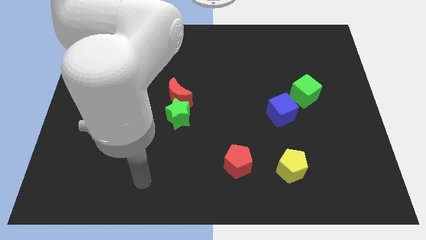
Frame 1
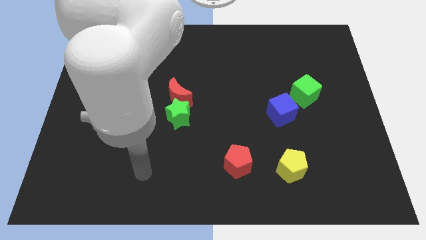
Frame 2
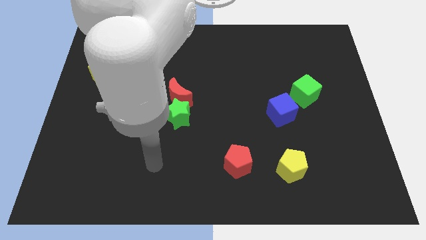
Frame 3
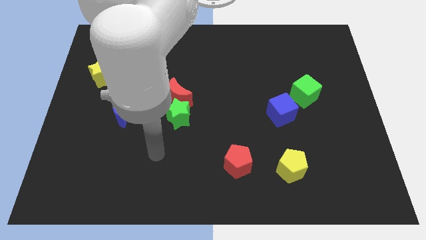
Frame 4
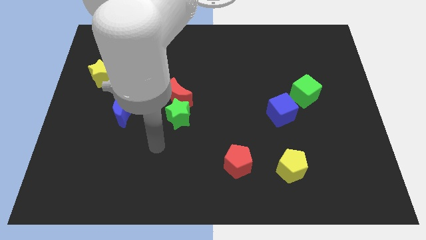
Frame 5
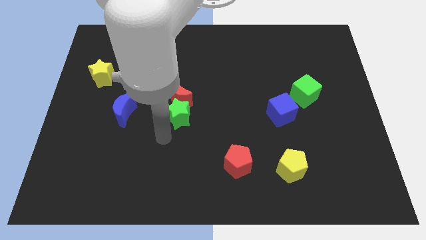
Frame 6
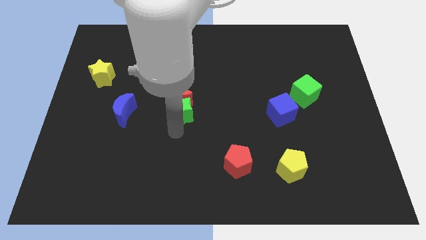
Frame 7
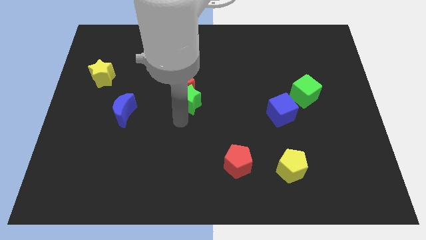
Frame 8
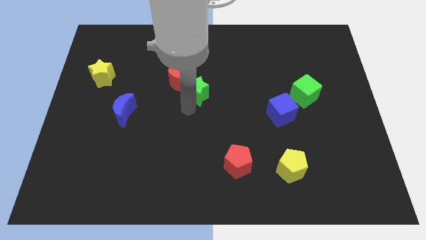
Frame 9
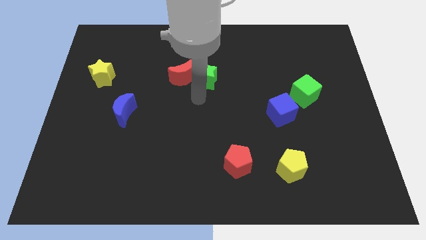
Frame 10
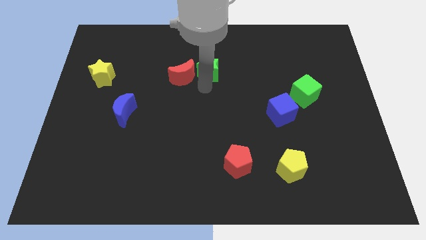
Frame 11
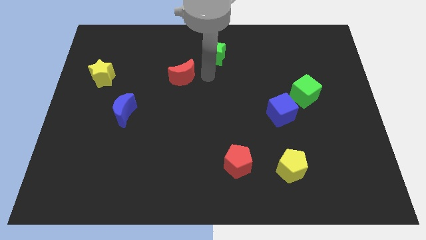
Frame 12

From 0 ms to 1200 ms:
separate the red moon from the green star

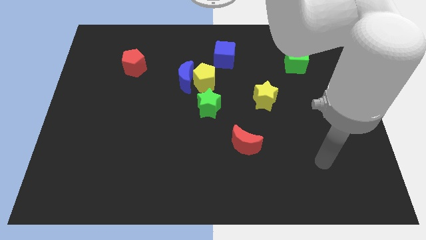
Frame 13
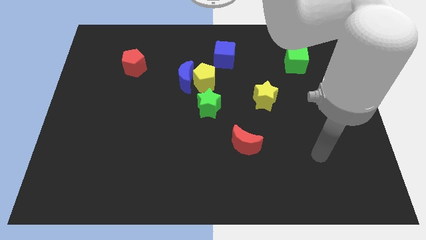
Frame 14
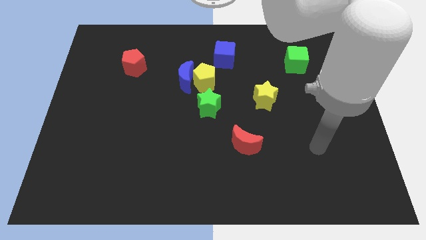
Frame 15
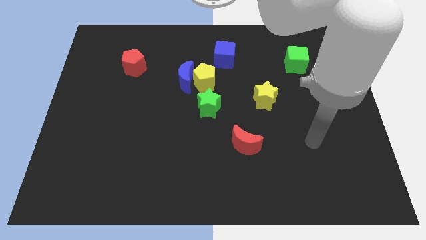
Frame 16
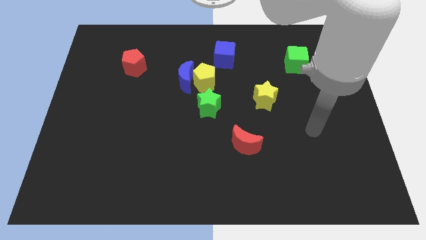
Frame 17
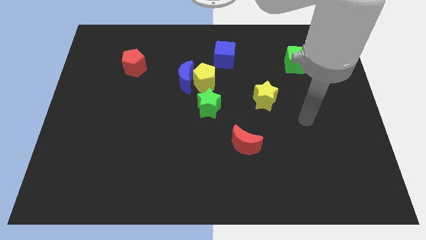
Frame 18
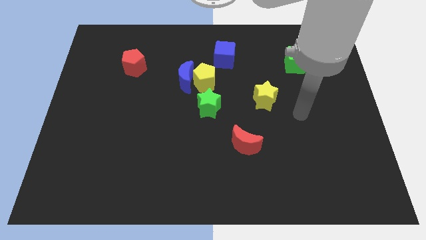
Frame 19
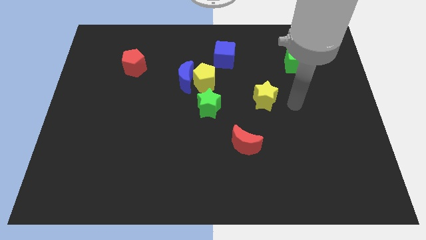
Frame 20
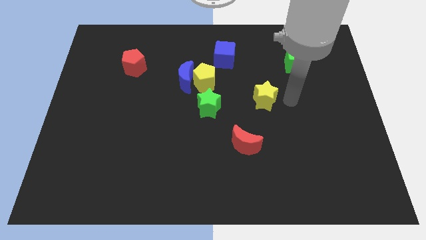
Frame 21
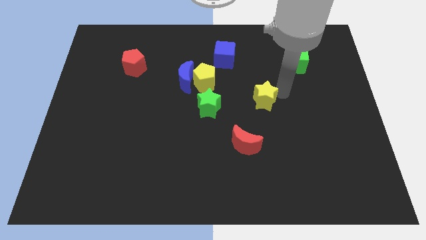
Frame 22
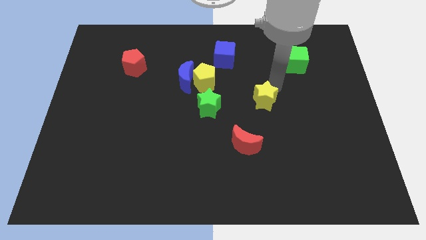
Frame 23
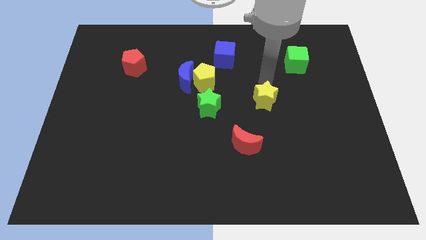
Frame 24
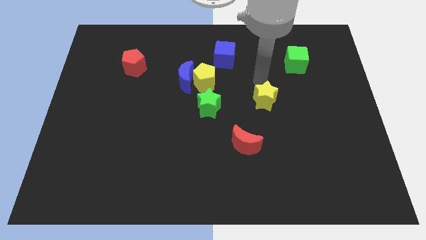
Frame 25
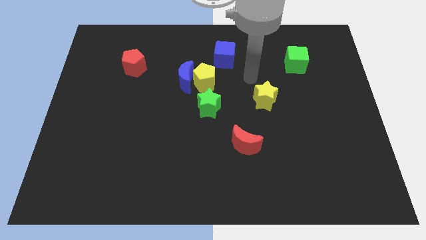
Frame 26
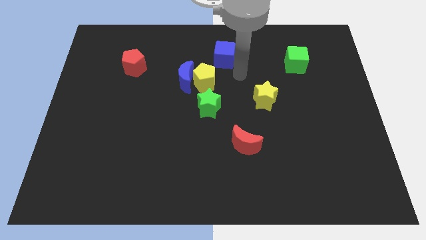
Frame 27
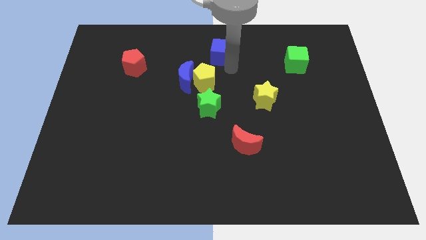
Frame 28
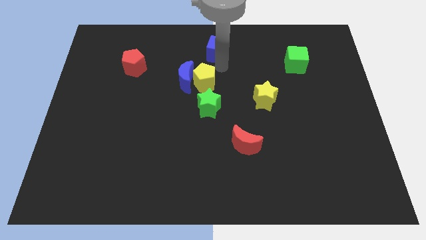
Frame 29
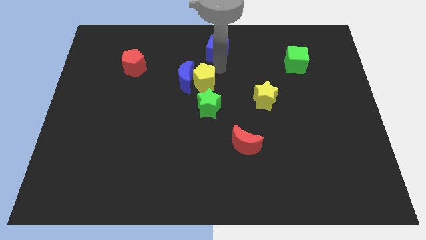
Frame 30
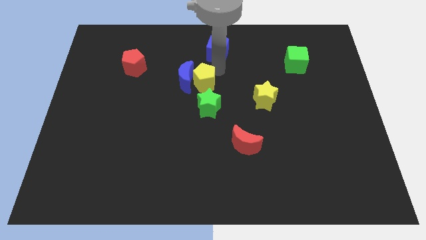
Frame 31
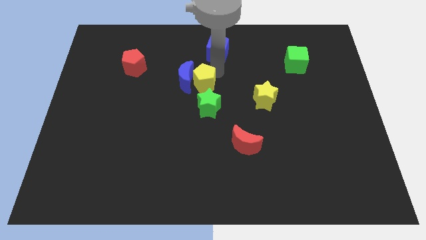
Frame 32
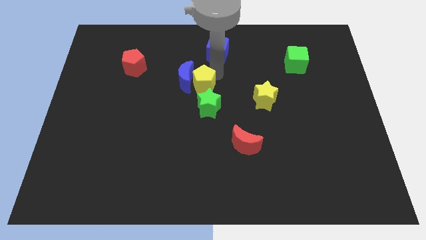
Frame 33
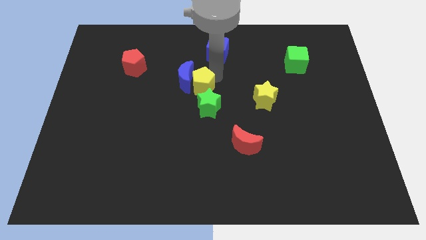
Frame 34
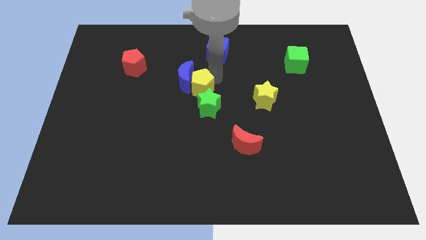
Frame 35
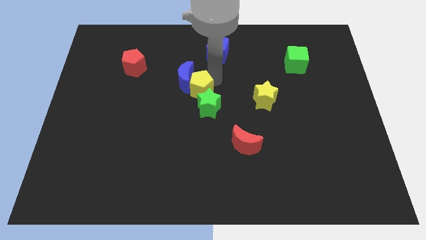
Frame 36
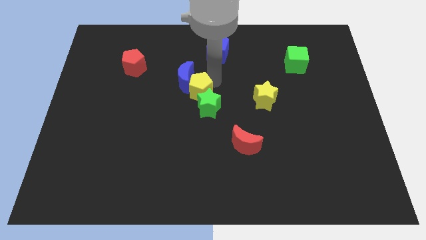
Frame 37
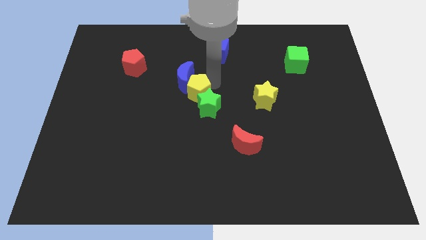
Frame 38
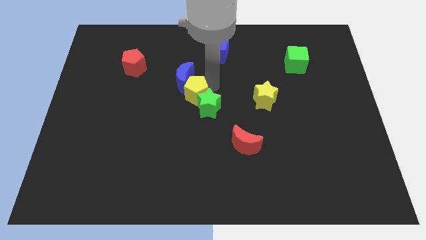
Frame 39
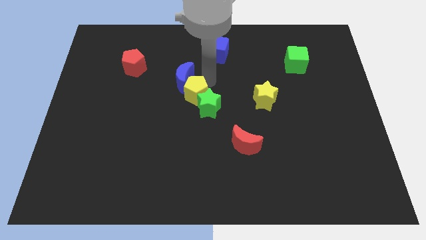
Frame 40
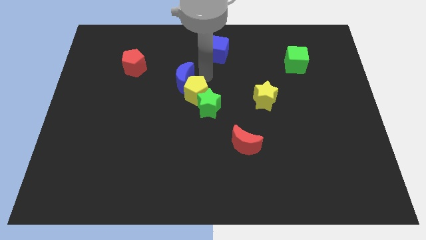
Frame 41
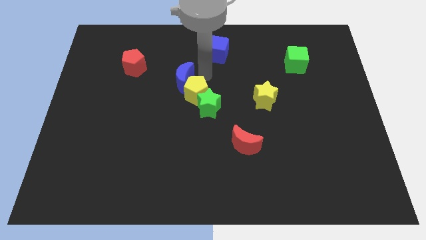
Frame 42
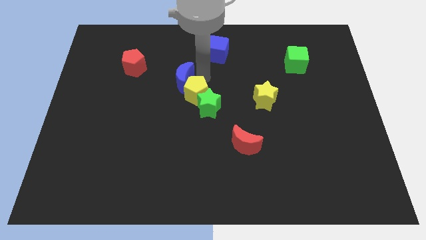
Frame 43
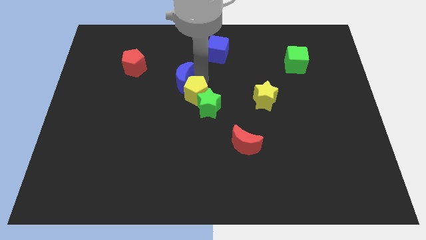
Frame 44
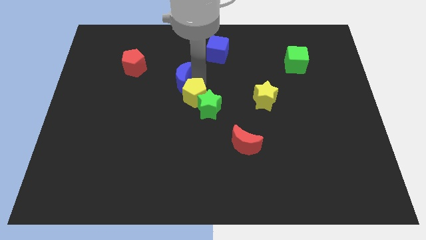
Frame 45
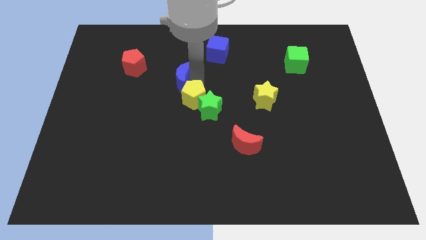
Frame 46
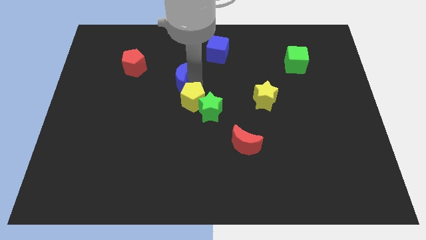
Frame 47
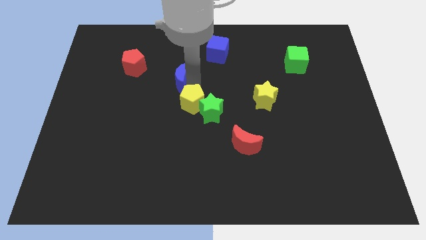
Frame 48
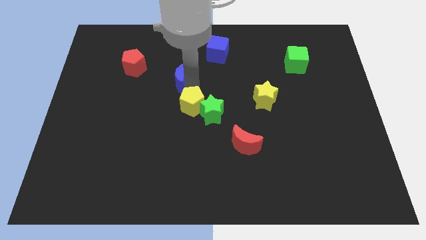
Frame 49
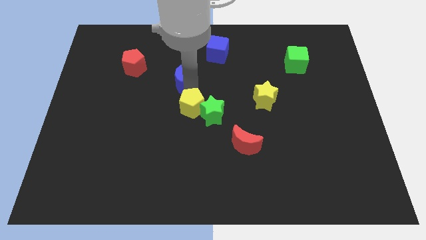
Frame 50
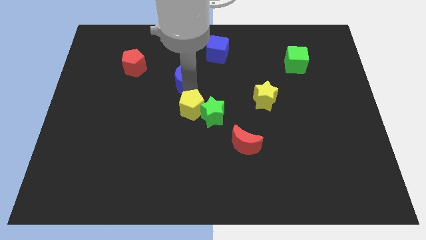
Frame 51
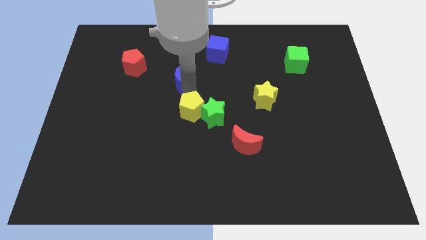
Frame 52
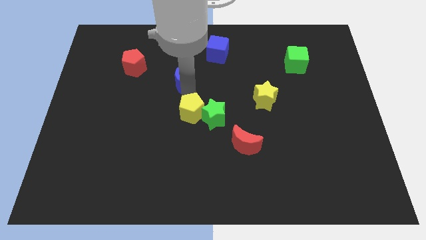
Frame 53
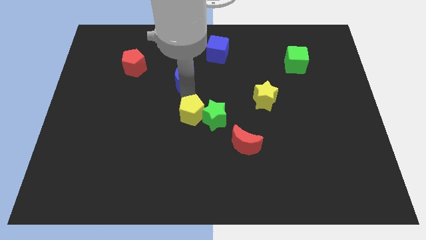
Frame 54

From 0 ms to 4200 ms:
pull the yellow pentagon apart from the group of blocks

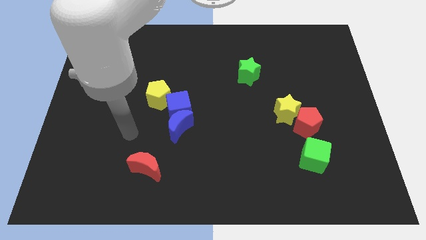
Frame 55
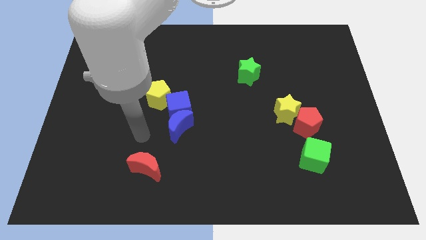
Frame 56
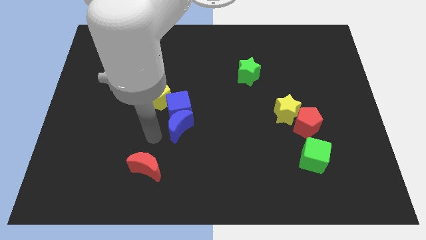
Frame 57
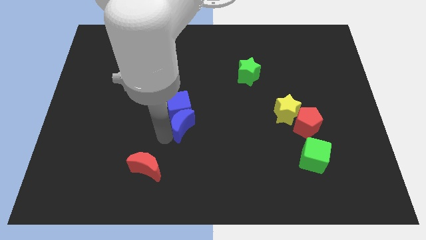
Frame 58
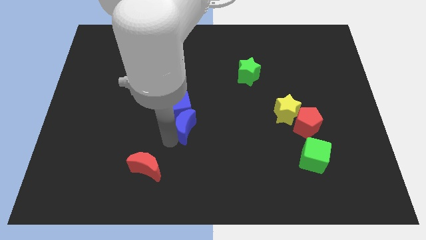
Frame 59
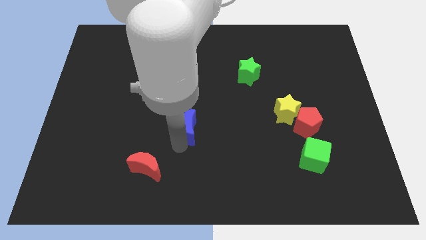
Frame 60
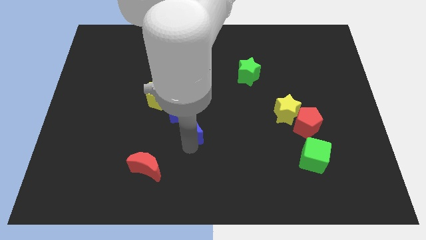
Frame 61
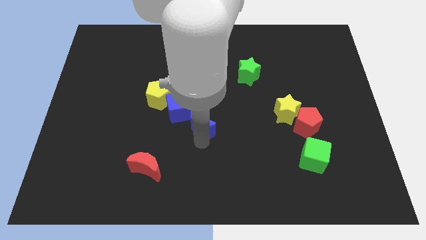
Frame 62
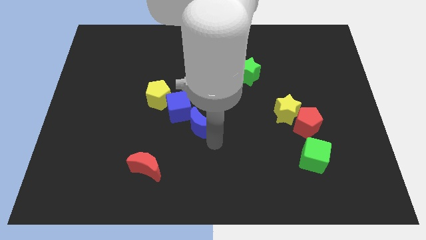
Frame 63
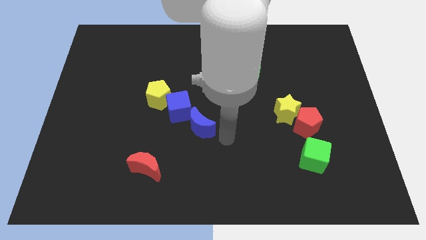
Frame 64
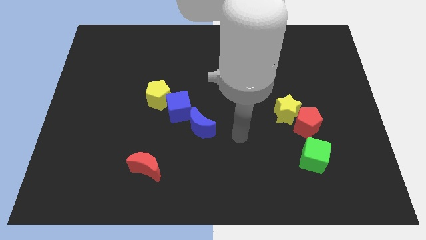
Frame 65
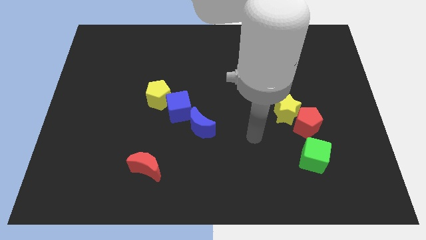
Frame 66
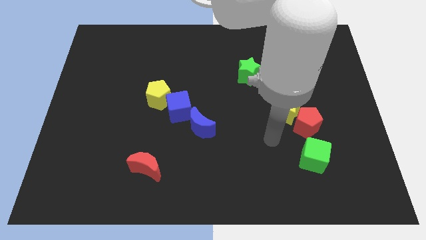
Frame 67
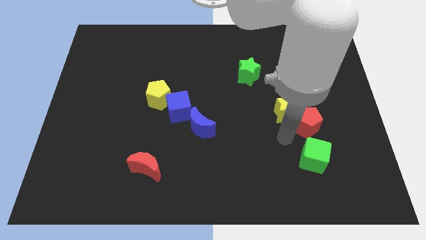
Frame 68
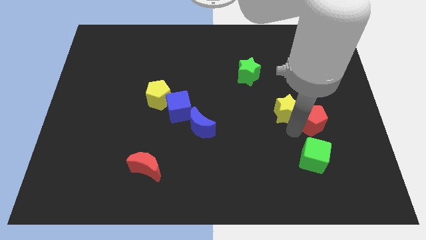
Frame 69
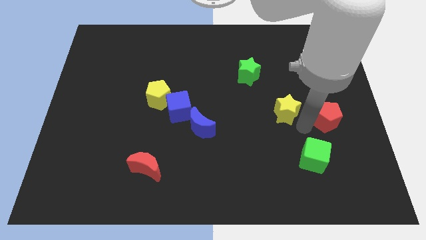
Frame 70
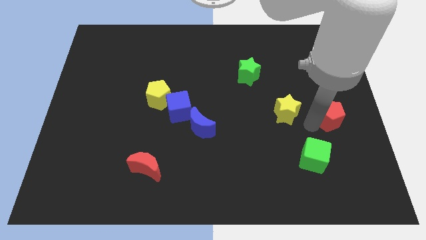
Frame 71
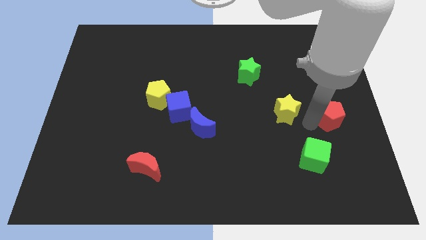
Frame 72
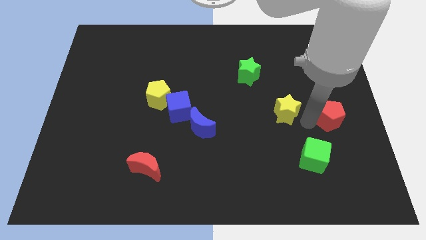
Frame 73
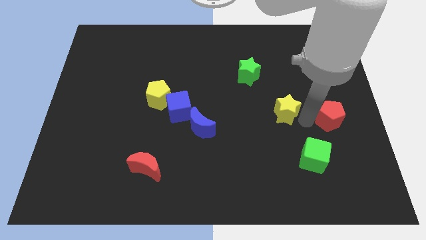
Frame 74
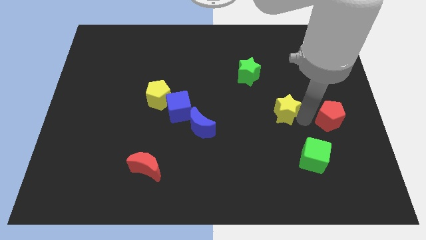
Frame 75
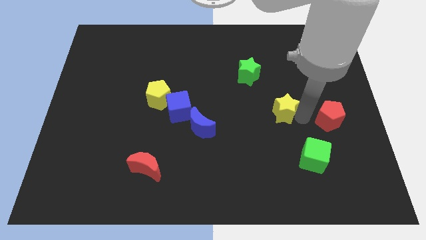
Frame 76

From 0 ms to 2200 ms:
pull the yellow star apart from the red pentagon

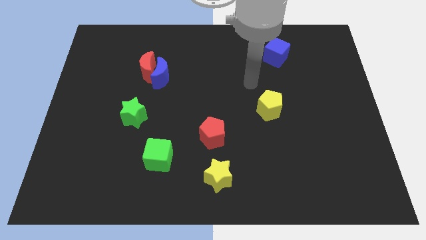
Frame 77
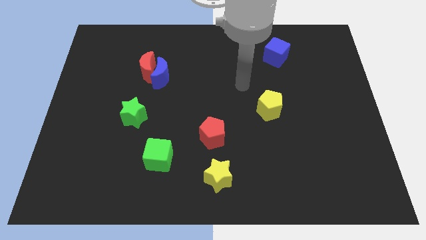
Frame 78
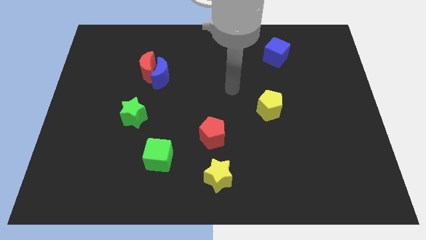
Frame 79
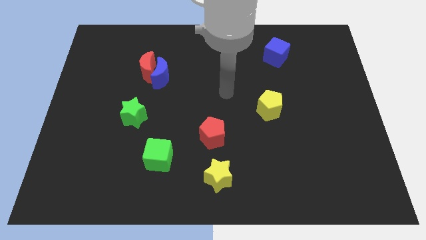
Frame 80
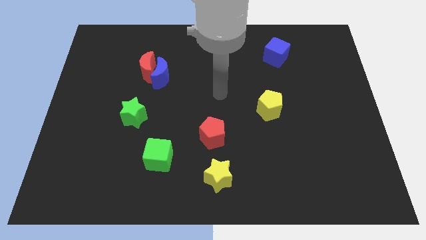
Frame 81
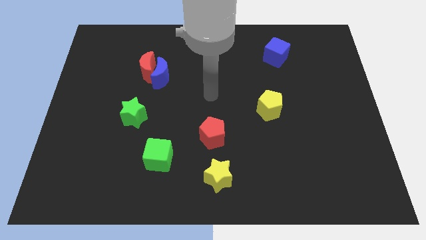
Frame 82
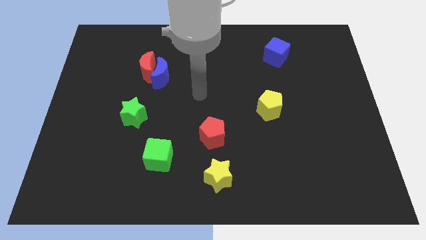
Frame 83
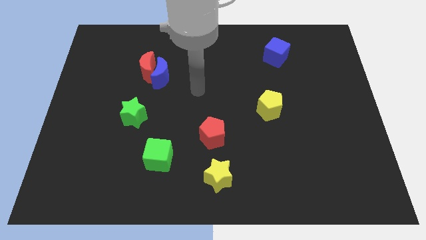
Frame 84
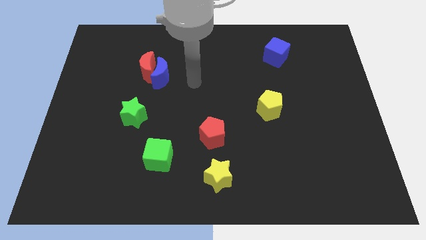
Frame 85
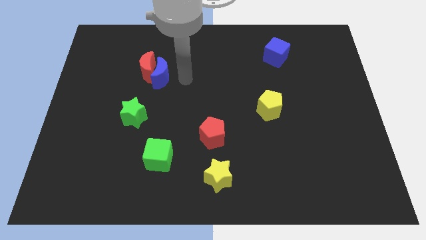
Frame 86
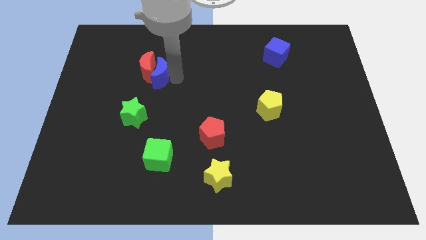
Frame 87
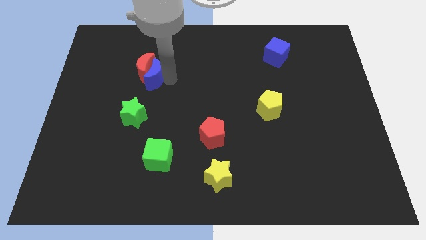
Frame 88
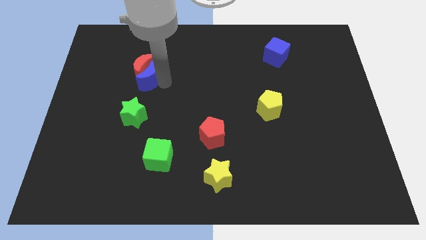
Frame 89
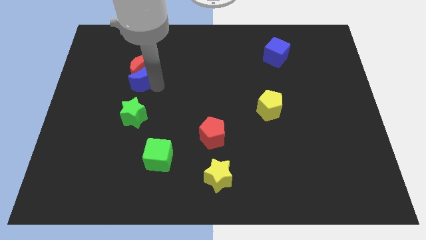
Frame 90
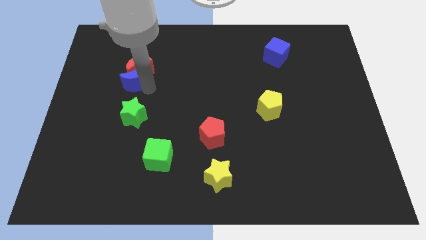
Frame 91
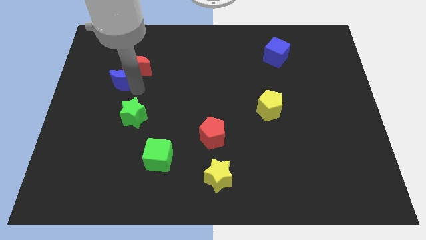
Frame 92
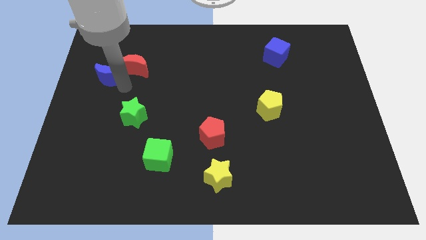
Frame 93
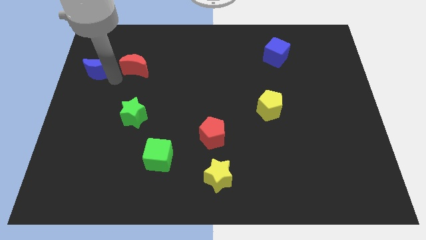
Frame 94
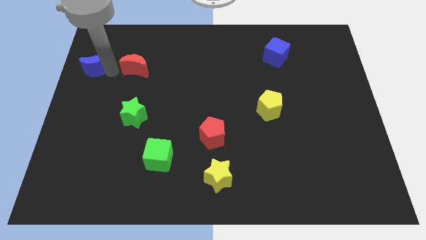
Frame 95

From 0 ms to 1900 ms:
separate the red moon from the blue moon
